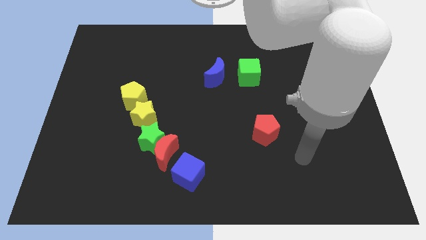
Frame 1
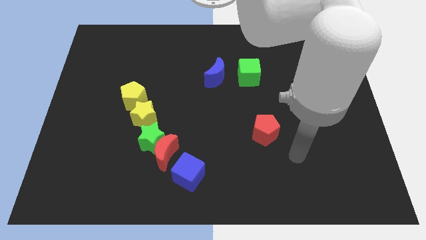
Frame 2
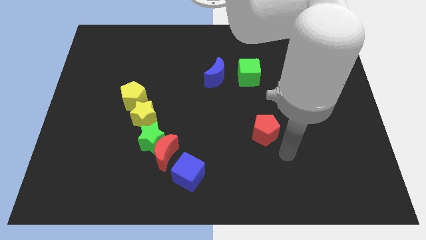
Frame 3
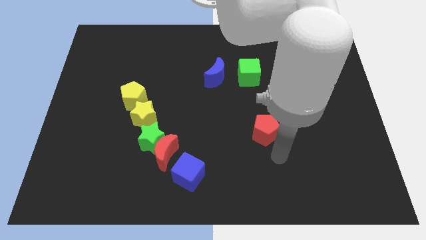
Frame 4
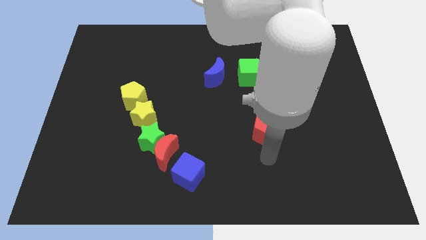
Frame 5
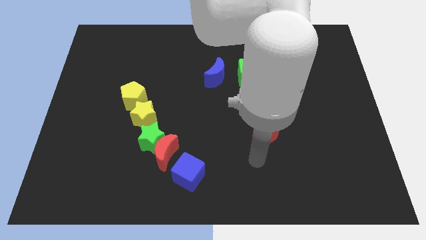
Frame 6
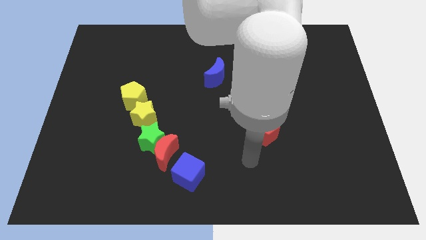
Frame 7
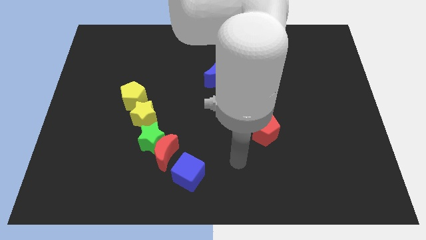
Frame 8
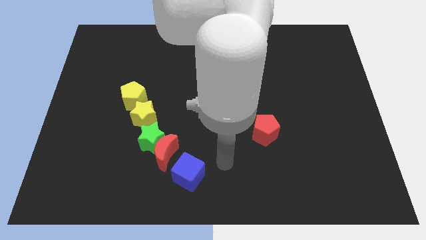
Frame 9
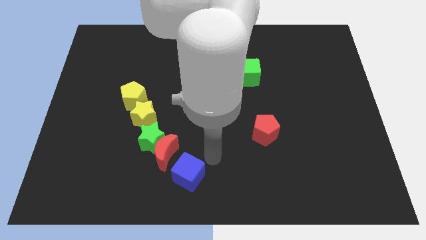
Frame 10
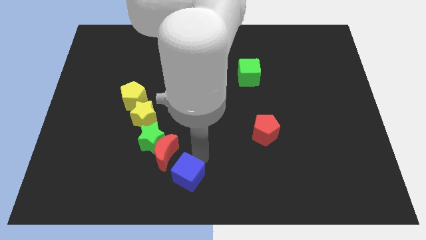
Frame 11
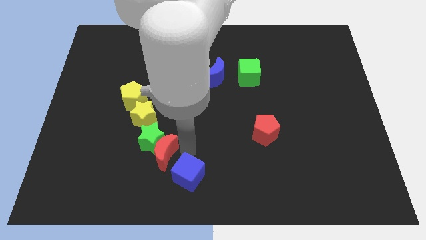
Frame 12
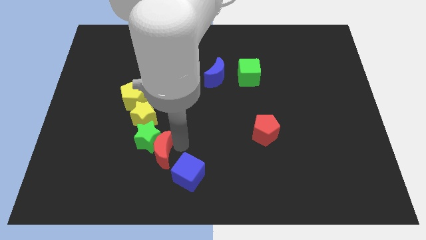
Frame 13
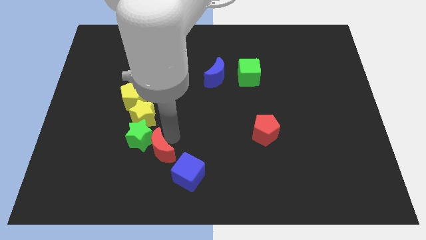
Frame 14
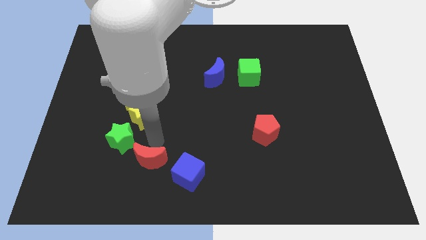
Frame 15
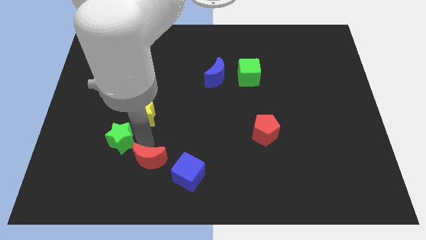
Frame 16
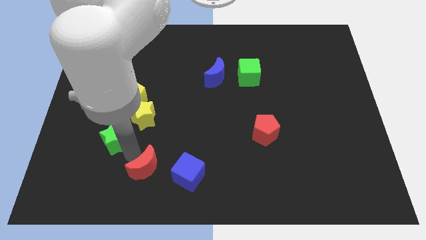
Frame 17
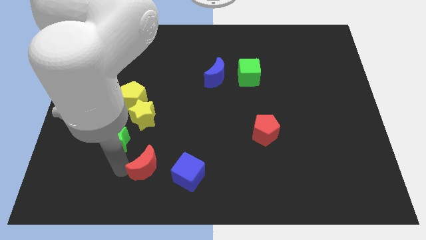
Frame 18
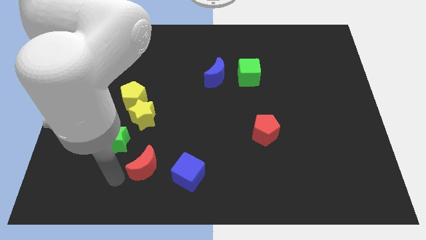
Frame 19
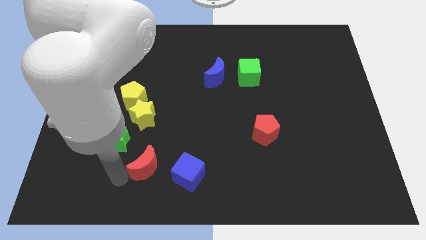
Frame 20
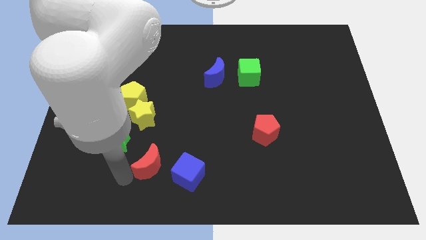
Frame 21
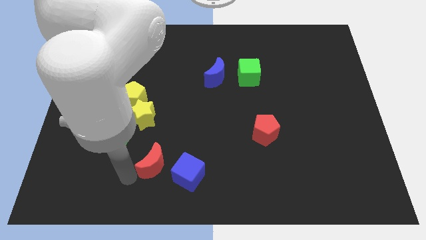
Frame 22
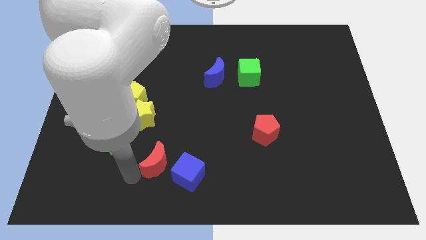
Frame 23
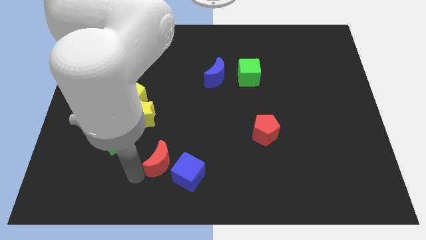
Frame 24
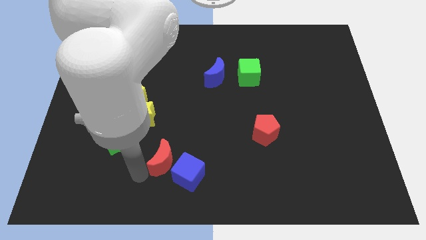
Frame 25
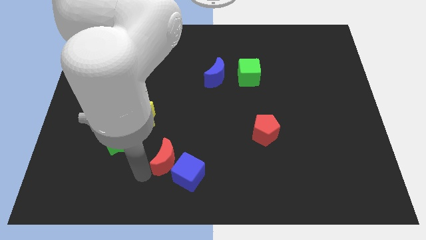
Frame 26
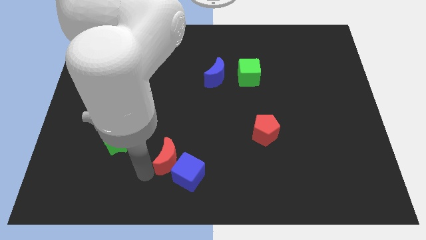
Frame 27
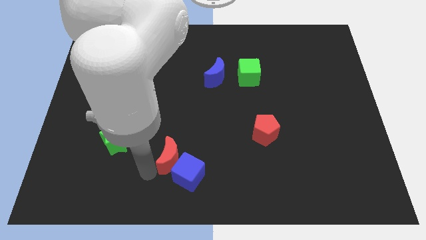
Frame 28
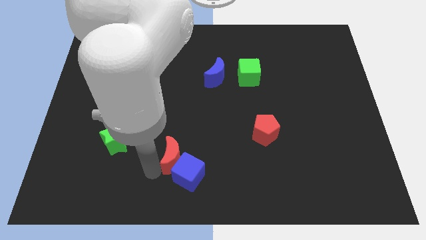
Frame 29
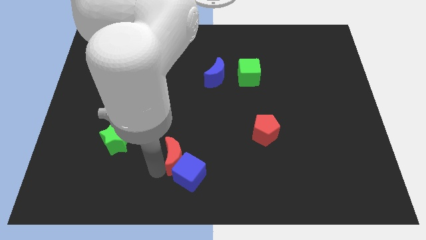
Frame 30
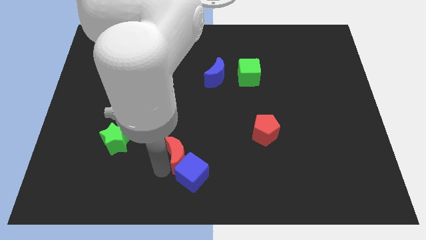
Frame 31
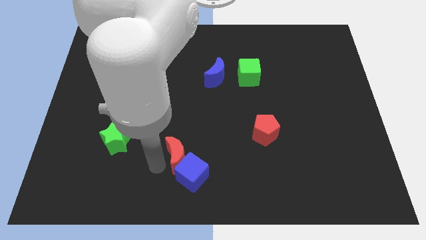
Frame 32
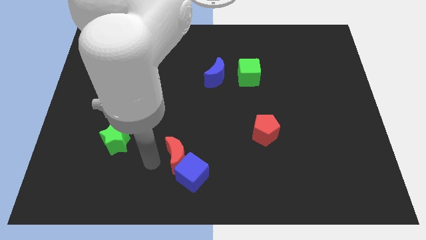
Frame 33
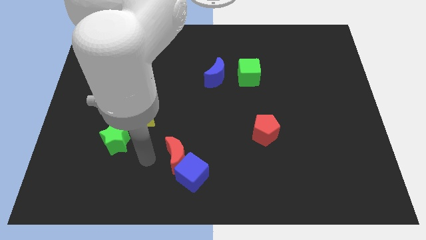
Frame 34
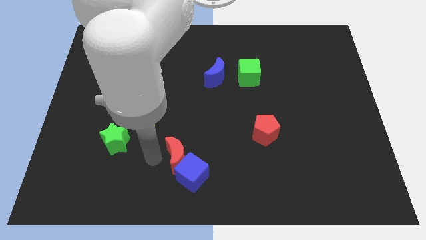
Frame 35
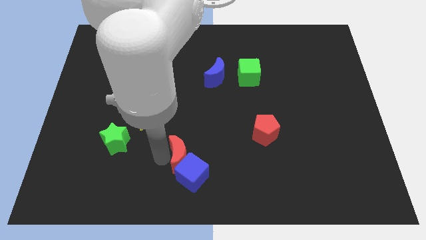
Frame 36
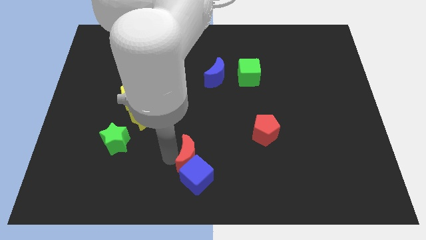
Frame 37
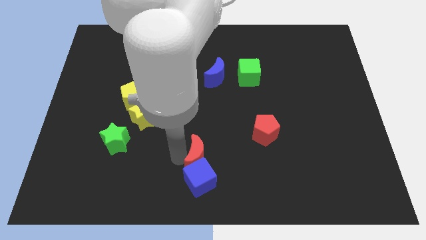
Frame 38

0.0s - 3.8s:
slightly move the red moon to the right

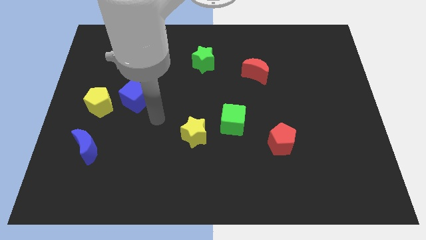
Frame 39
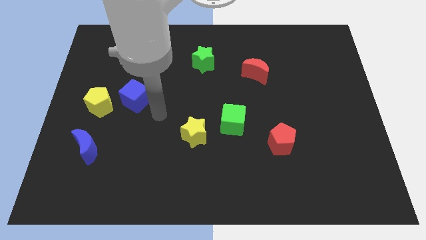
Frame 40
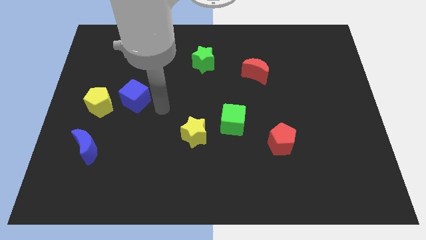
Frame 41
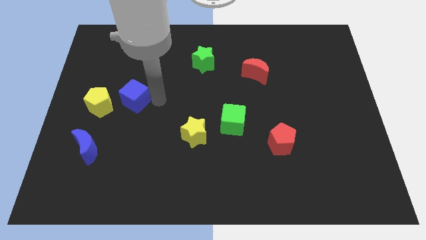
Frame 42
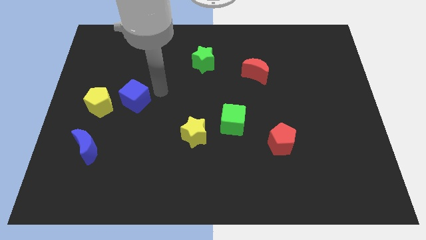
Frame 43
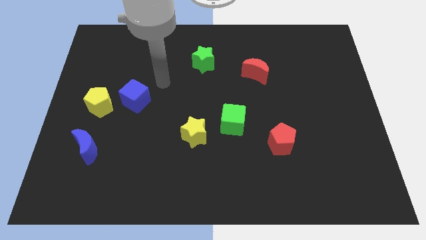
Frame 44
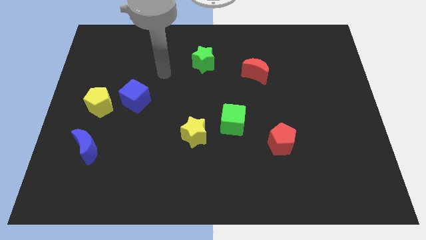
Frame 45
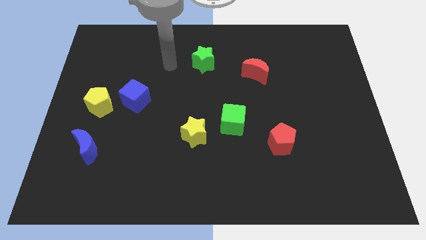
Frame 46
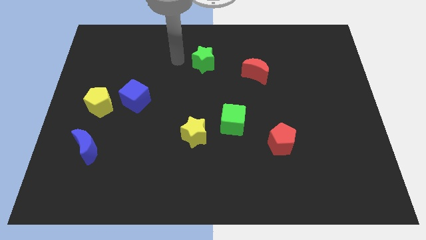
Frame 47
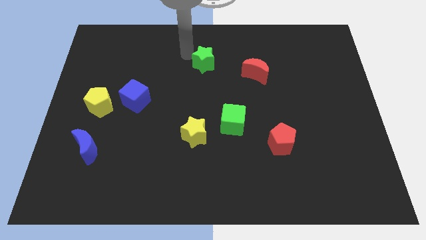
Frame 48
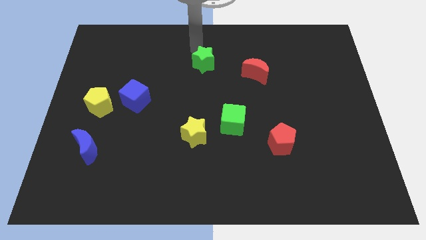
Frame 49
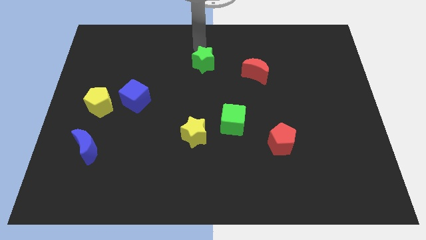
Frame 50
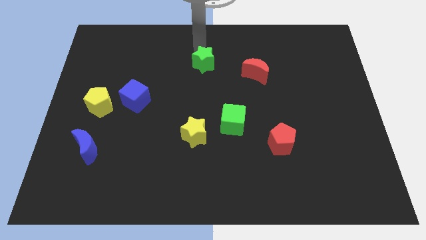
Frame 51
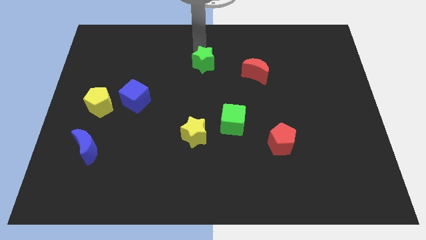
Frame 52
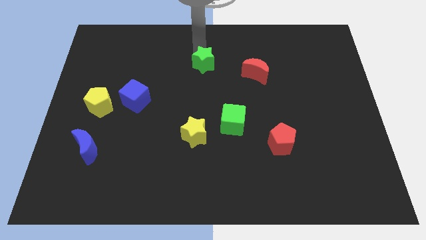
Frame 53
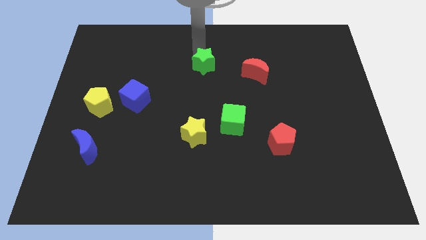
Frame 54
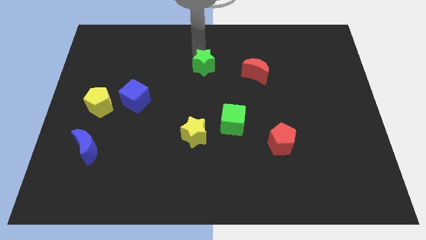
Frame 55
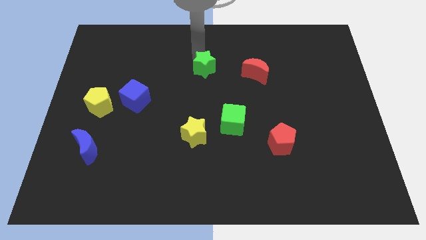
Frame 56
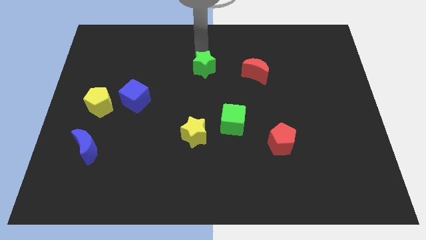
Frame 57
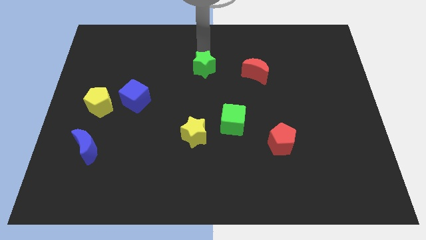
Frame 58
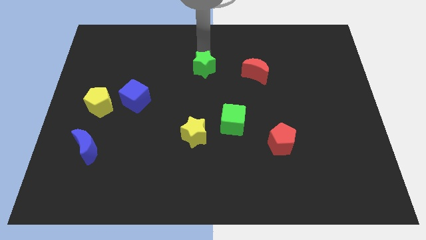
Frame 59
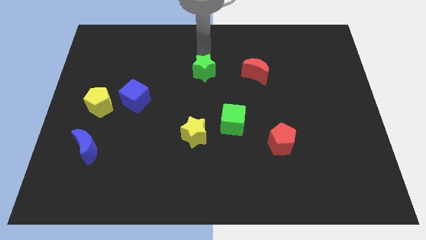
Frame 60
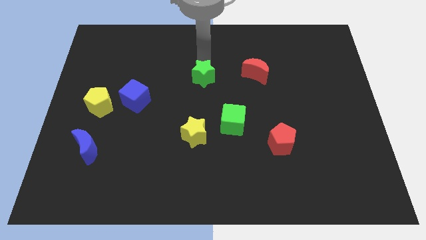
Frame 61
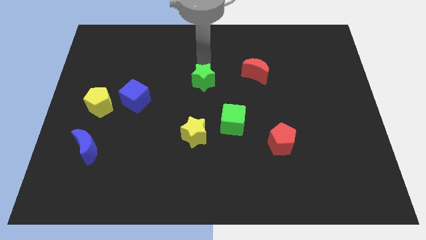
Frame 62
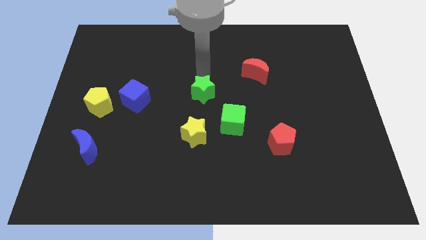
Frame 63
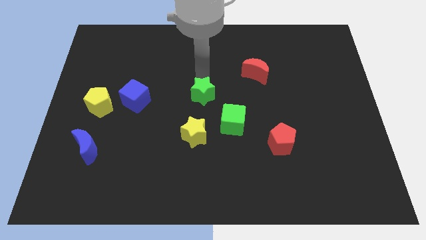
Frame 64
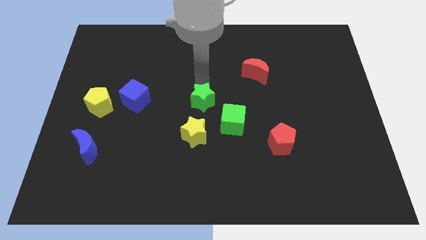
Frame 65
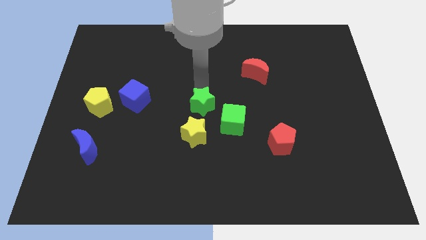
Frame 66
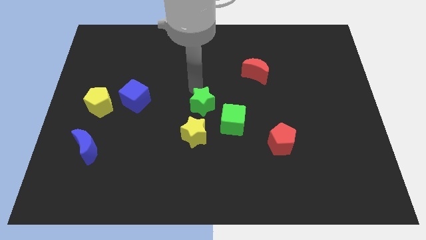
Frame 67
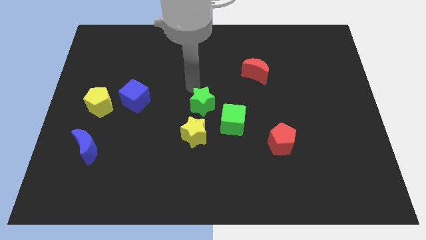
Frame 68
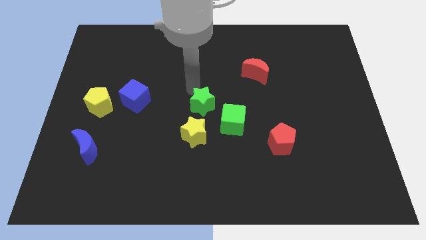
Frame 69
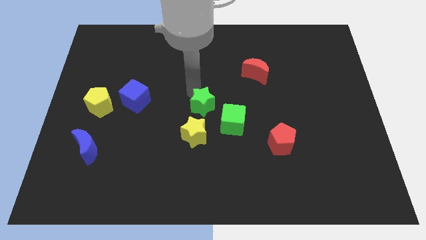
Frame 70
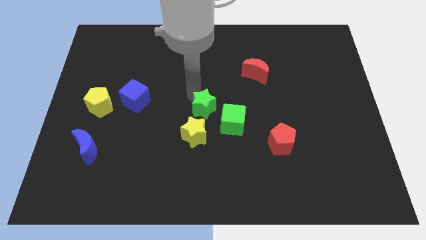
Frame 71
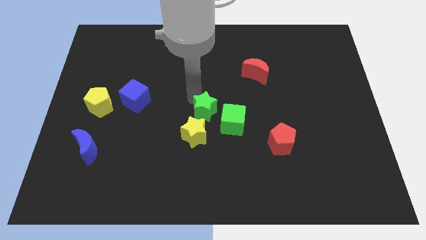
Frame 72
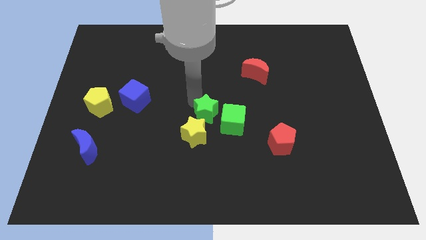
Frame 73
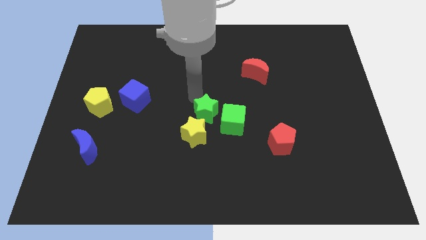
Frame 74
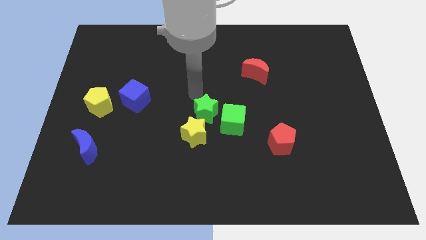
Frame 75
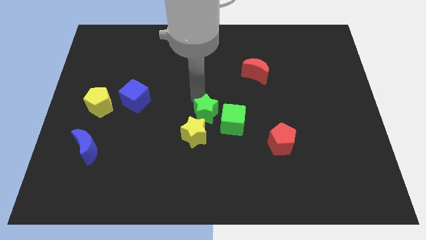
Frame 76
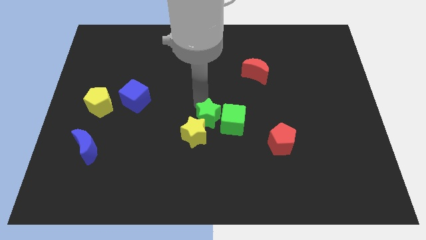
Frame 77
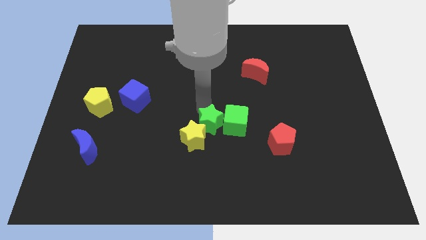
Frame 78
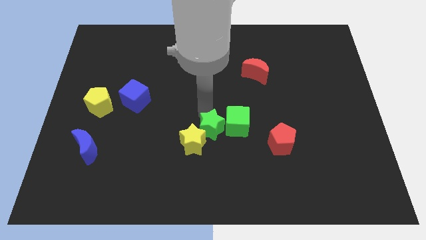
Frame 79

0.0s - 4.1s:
push the green star downwards
